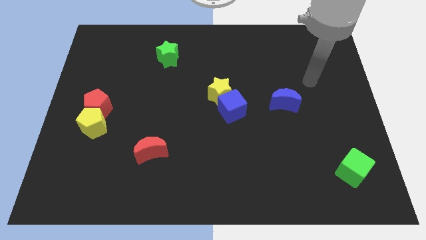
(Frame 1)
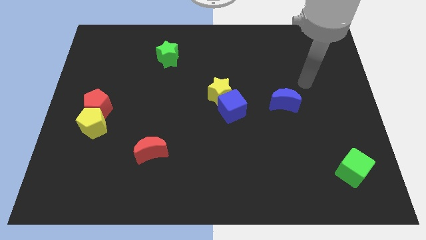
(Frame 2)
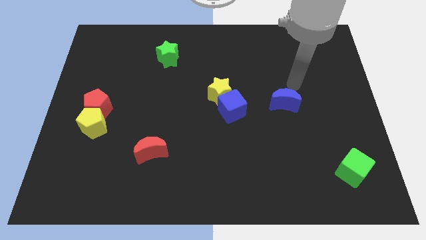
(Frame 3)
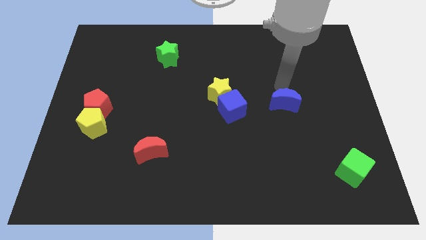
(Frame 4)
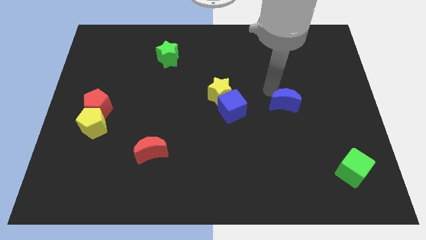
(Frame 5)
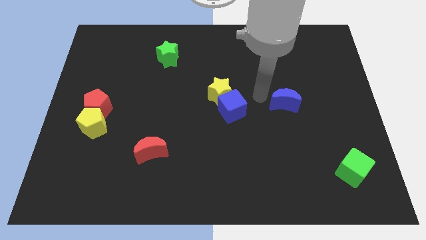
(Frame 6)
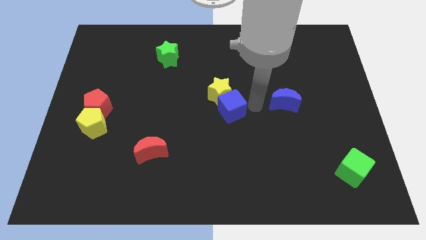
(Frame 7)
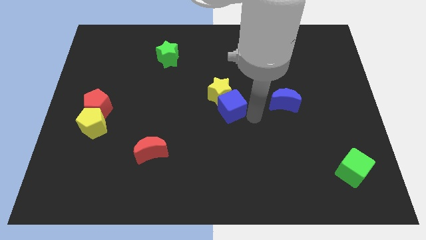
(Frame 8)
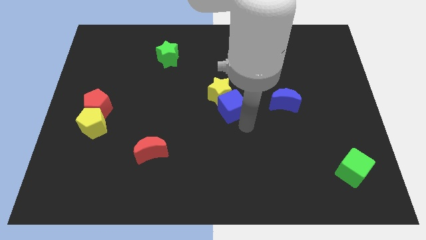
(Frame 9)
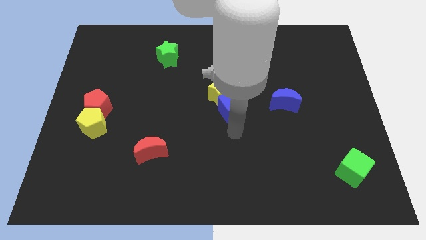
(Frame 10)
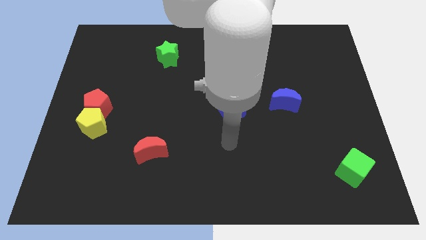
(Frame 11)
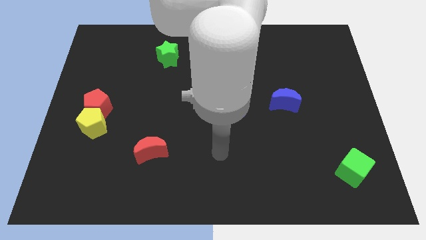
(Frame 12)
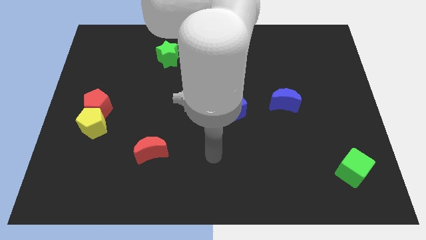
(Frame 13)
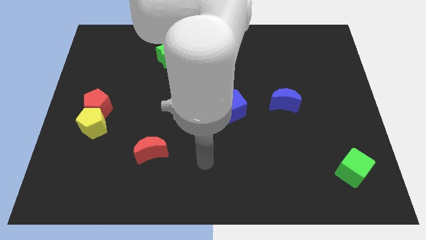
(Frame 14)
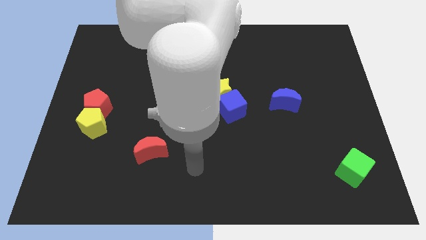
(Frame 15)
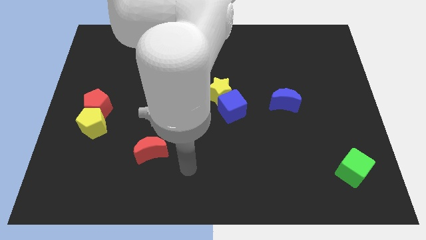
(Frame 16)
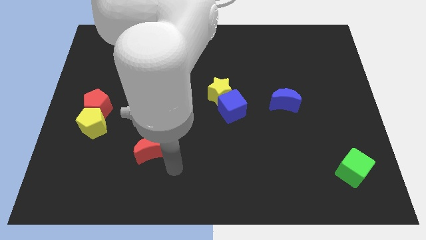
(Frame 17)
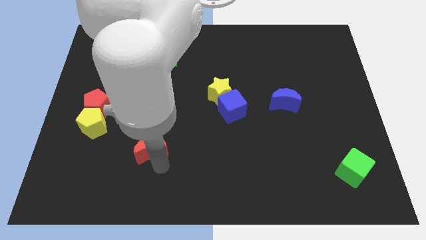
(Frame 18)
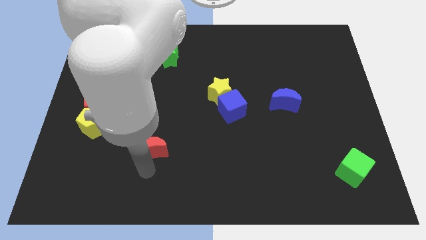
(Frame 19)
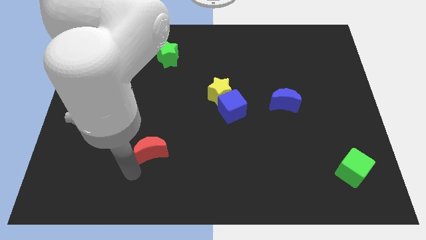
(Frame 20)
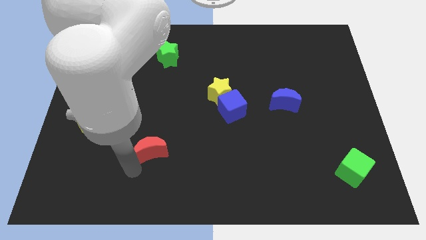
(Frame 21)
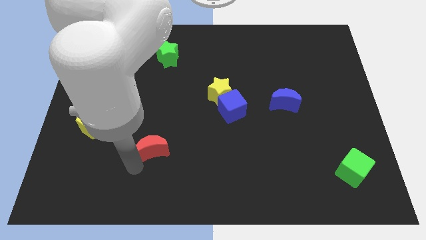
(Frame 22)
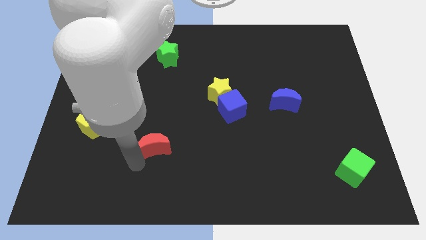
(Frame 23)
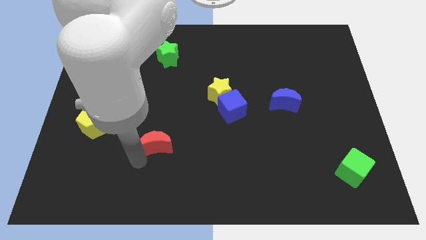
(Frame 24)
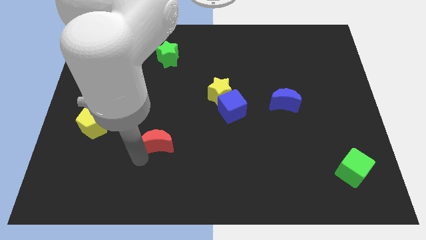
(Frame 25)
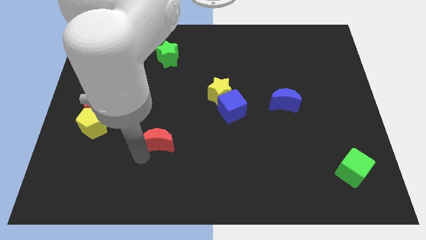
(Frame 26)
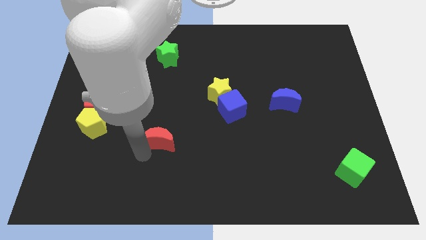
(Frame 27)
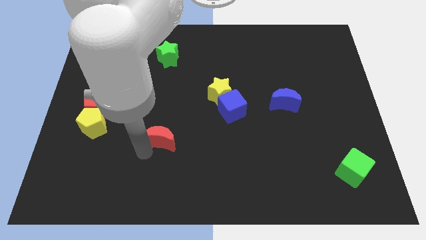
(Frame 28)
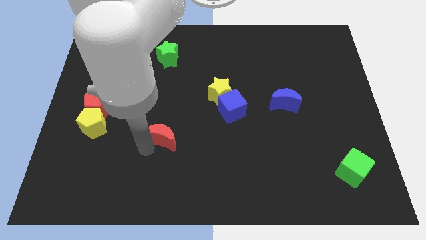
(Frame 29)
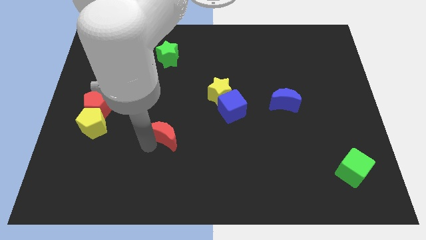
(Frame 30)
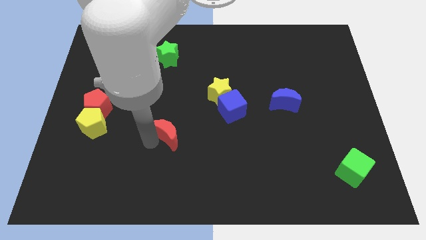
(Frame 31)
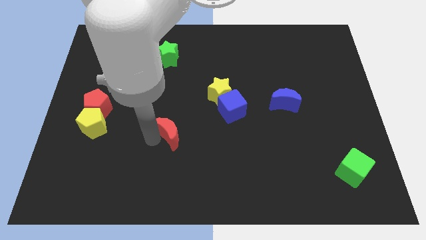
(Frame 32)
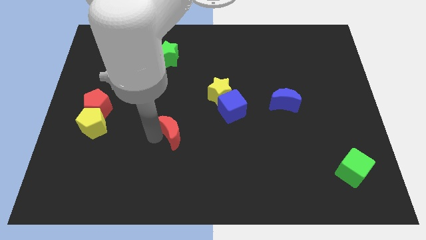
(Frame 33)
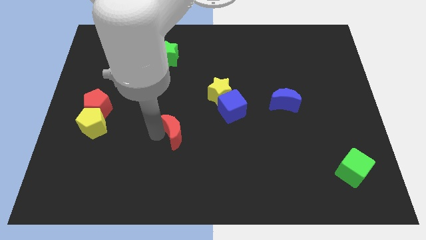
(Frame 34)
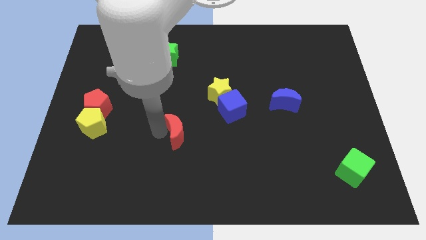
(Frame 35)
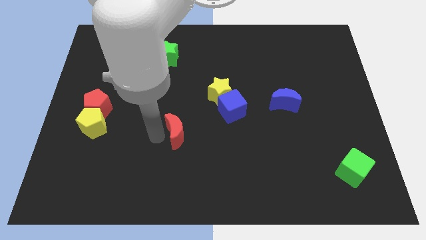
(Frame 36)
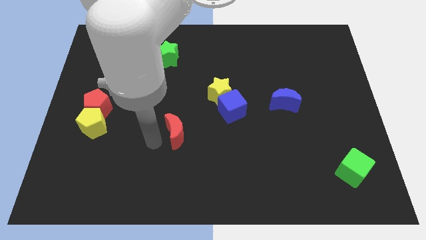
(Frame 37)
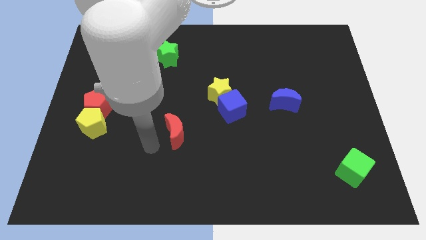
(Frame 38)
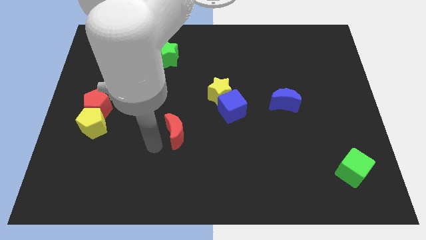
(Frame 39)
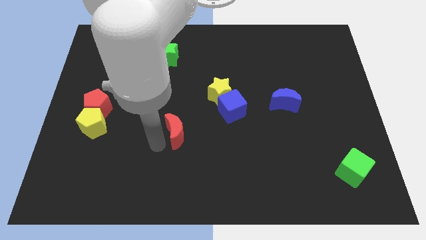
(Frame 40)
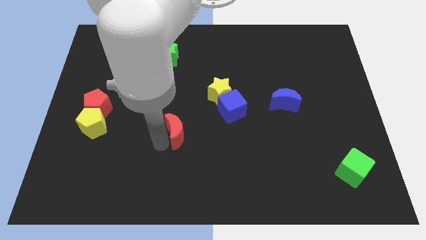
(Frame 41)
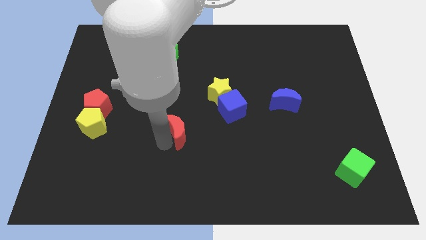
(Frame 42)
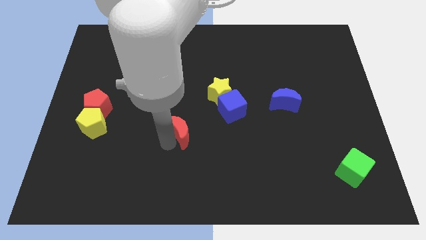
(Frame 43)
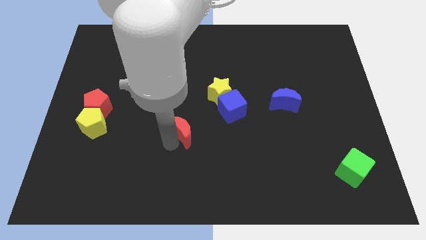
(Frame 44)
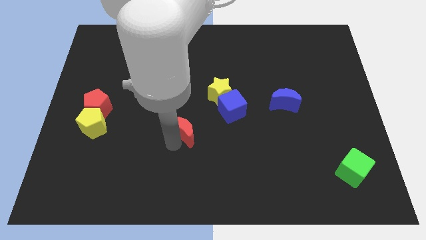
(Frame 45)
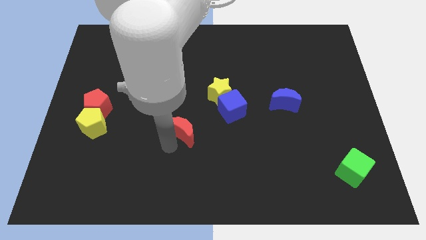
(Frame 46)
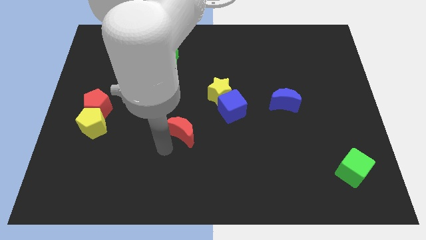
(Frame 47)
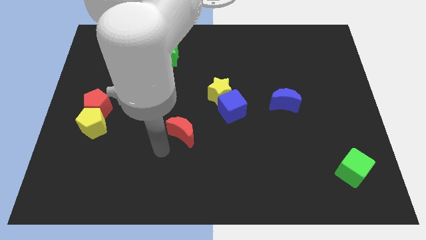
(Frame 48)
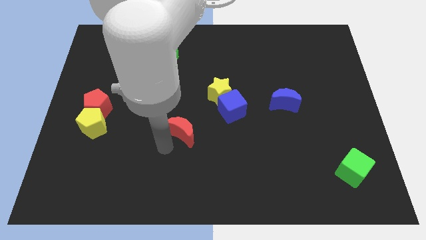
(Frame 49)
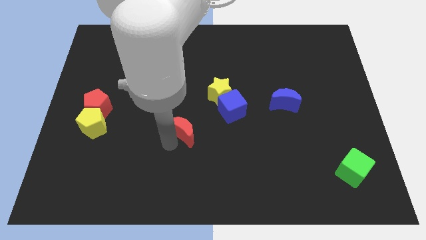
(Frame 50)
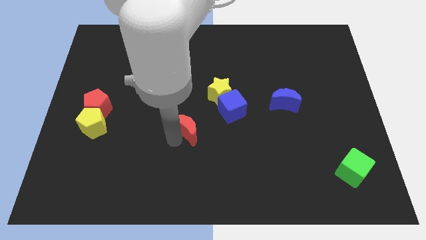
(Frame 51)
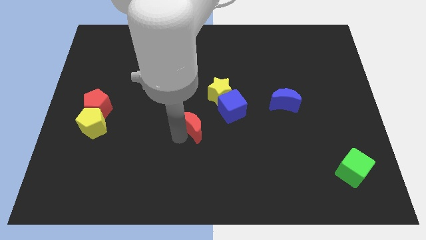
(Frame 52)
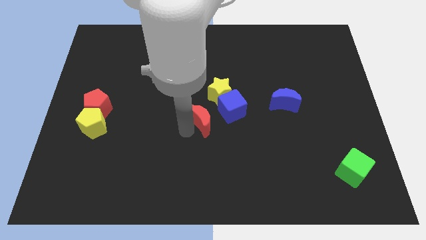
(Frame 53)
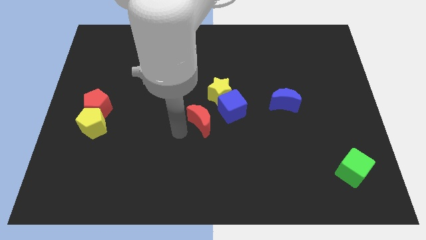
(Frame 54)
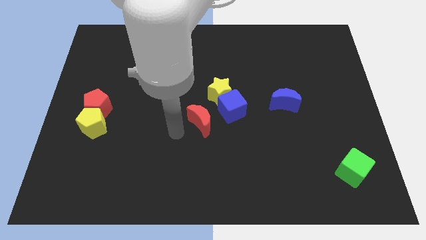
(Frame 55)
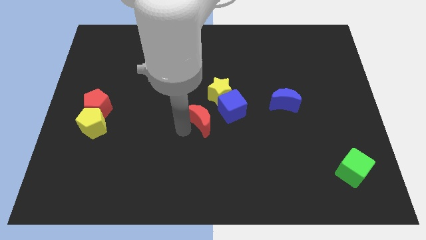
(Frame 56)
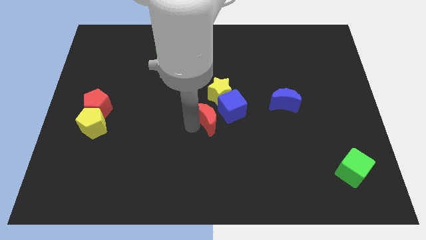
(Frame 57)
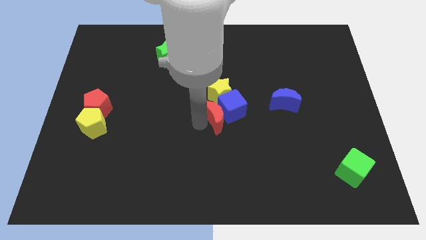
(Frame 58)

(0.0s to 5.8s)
slide the red moon close to the blue cube

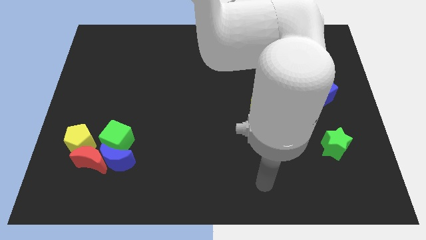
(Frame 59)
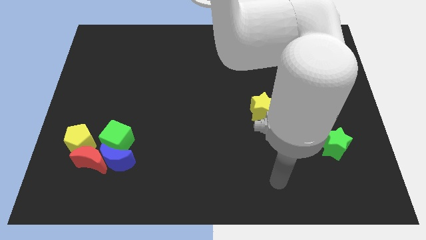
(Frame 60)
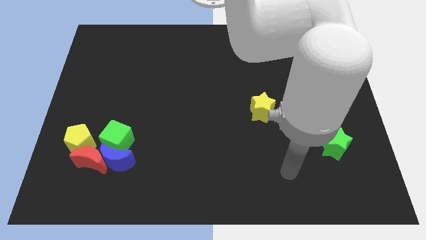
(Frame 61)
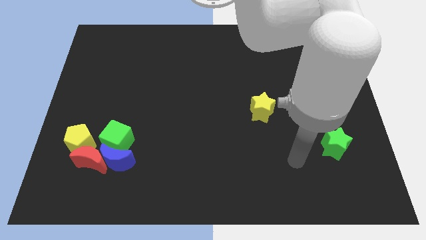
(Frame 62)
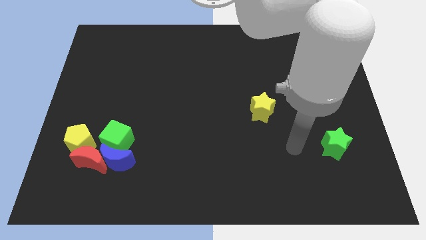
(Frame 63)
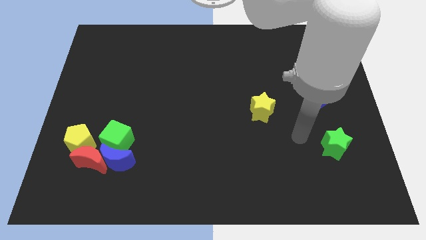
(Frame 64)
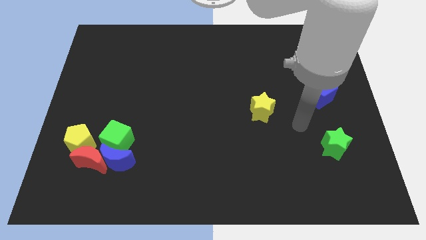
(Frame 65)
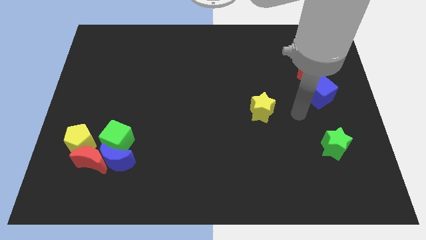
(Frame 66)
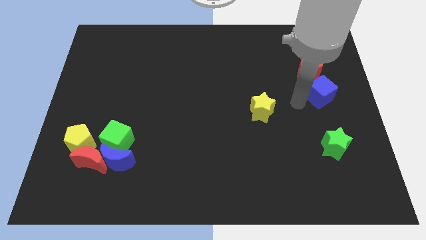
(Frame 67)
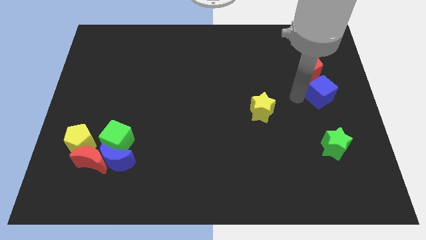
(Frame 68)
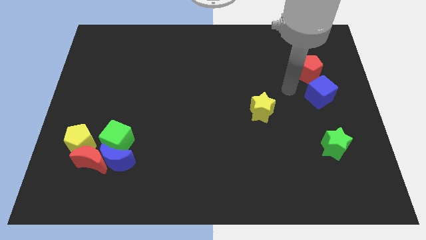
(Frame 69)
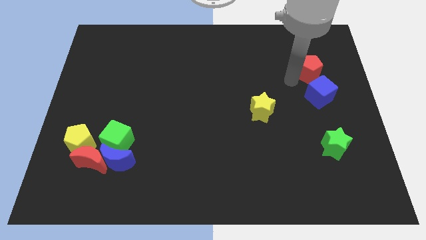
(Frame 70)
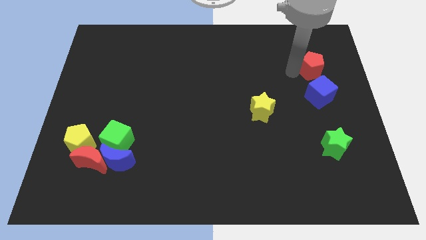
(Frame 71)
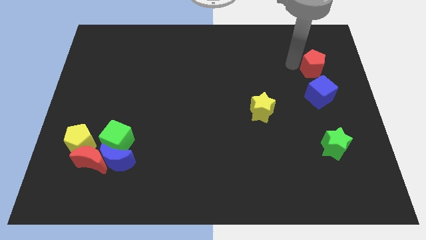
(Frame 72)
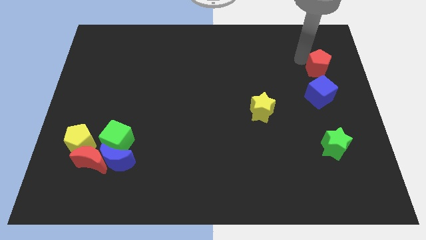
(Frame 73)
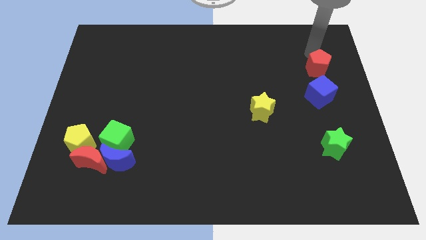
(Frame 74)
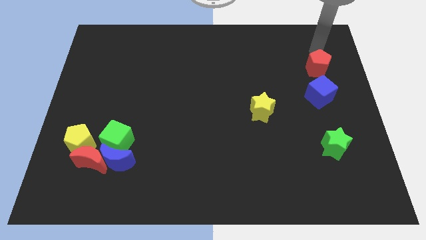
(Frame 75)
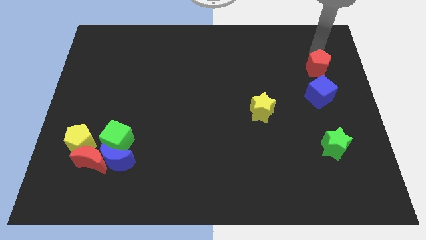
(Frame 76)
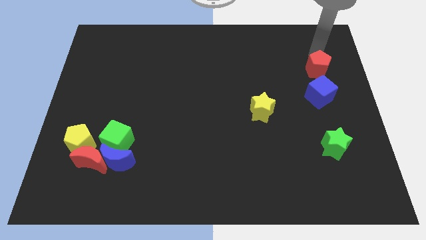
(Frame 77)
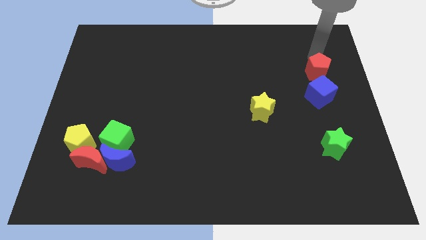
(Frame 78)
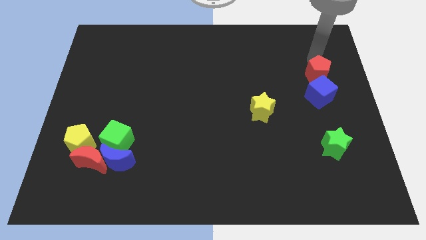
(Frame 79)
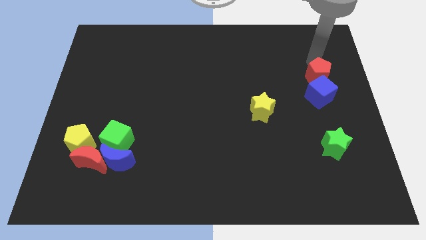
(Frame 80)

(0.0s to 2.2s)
slide the red pentagon next to the blue cube
